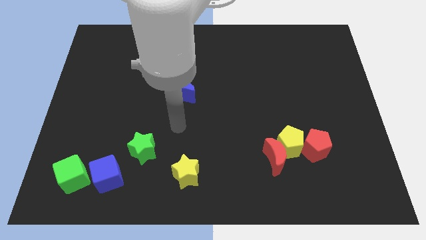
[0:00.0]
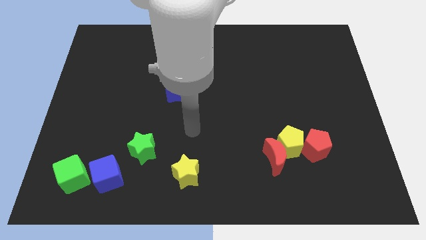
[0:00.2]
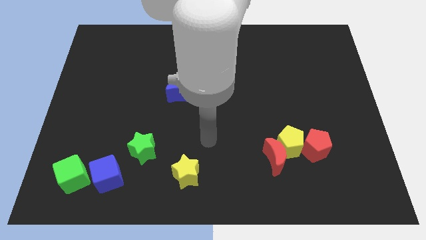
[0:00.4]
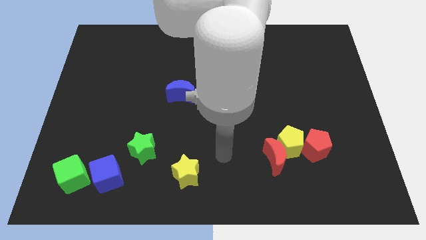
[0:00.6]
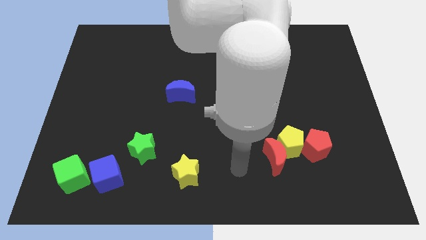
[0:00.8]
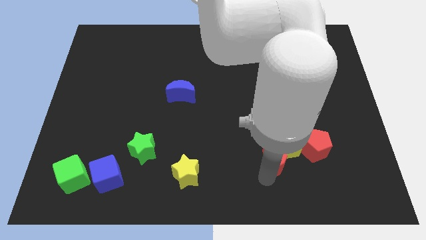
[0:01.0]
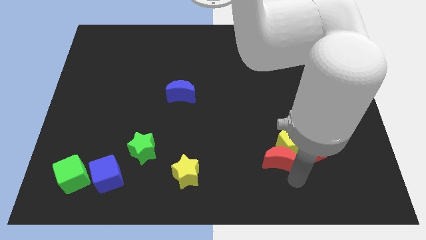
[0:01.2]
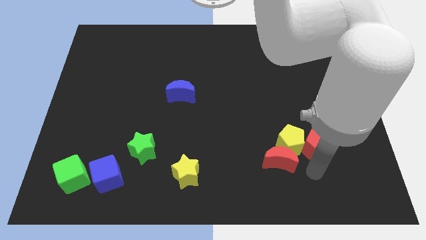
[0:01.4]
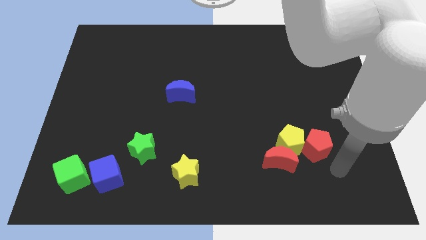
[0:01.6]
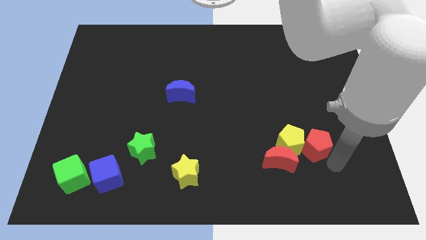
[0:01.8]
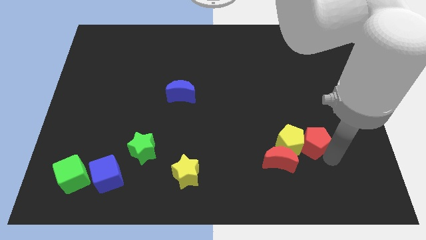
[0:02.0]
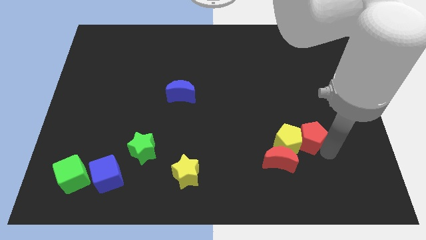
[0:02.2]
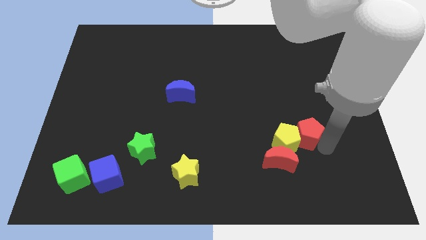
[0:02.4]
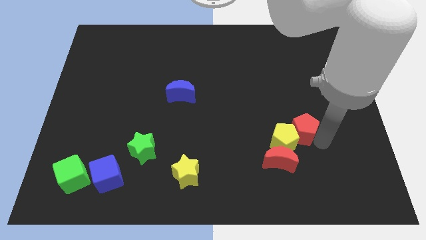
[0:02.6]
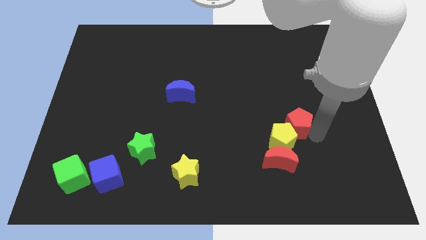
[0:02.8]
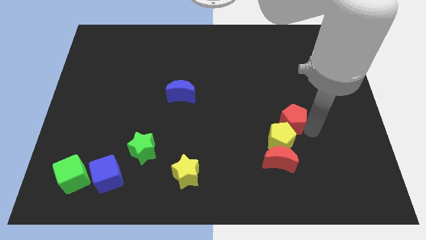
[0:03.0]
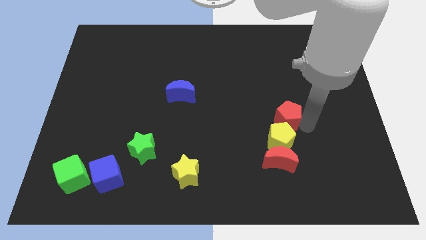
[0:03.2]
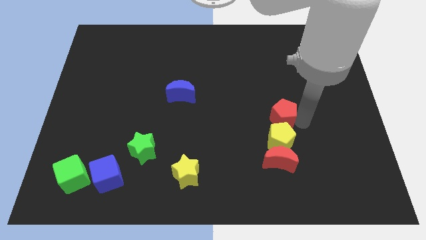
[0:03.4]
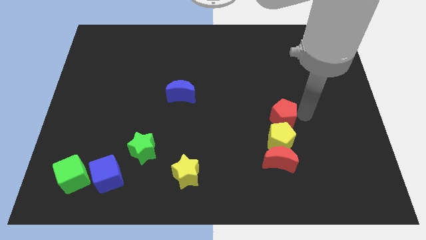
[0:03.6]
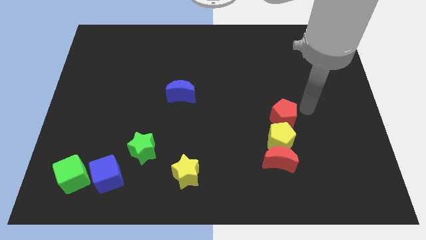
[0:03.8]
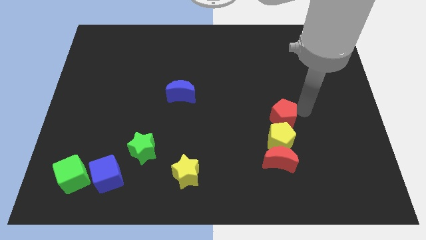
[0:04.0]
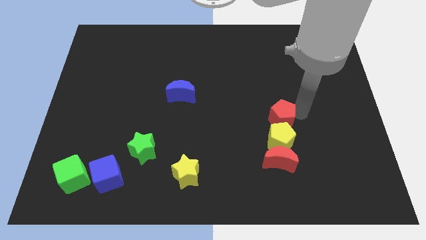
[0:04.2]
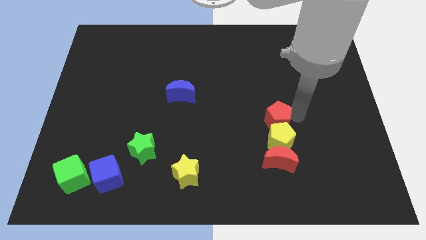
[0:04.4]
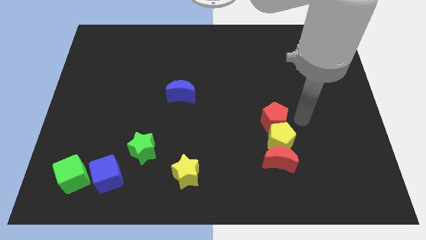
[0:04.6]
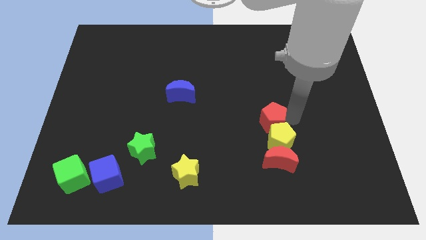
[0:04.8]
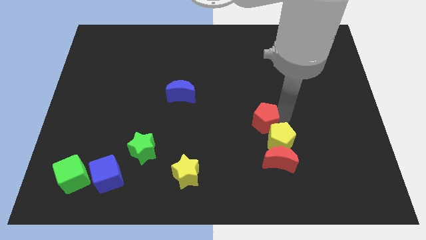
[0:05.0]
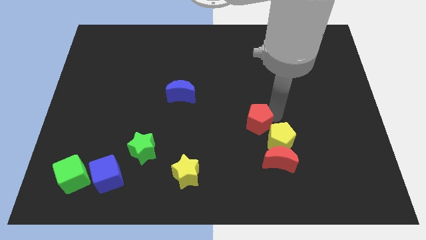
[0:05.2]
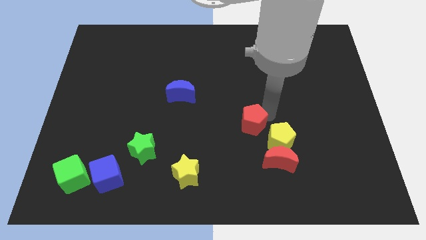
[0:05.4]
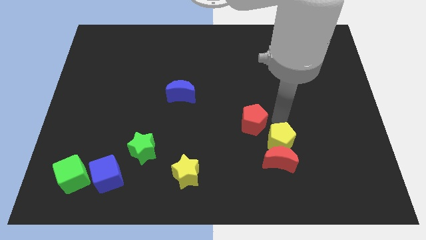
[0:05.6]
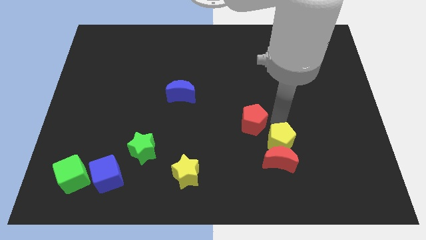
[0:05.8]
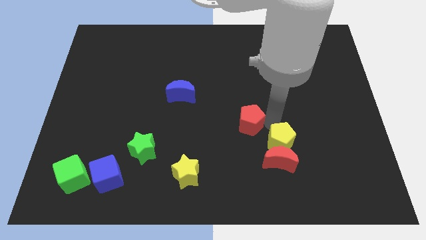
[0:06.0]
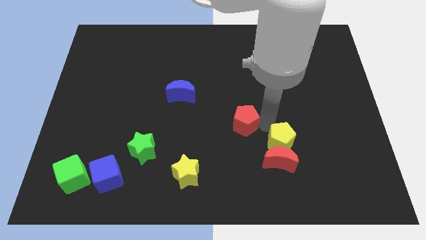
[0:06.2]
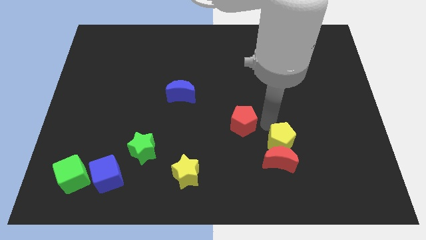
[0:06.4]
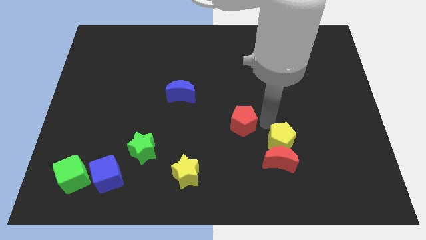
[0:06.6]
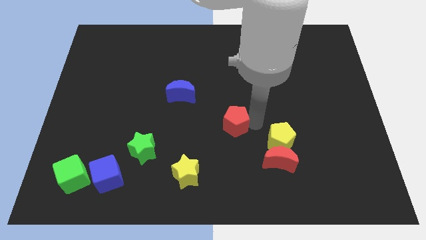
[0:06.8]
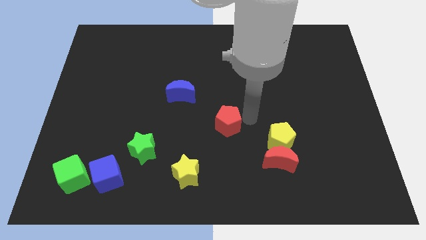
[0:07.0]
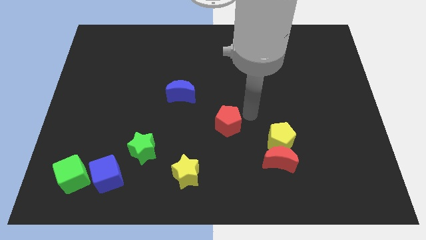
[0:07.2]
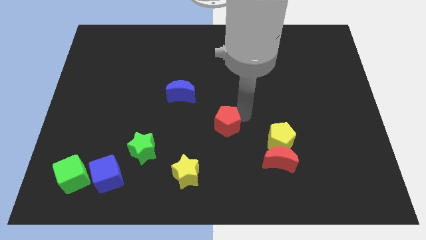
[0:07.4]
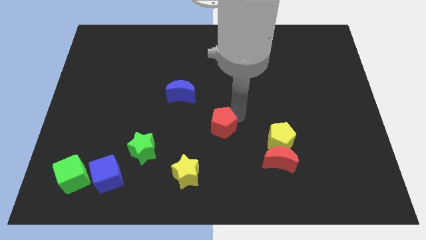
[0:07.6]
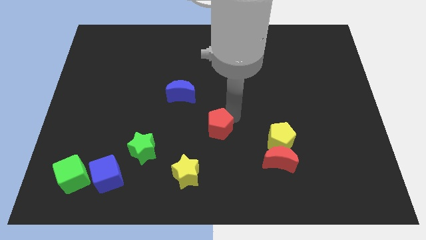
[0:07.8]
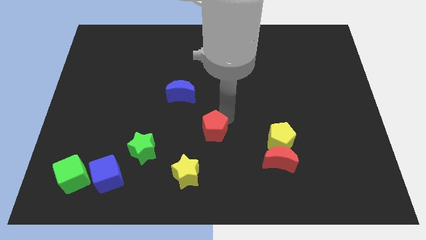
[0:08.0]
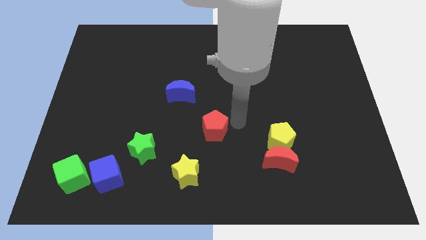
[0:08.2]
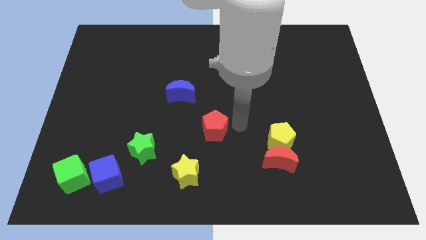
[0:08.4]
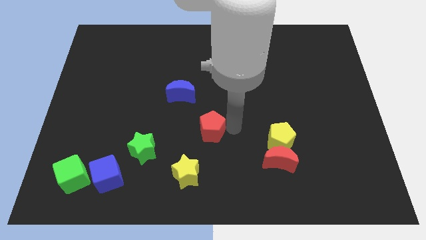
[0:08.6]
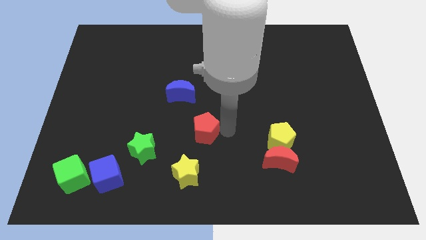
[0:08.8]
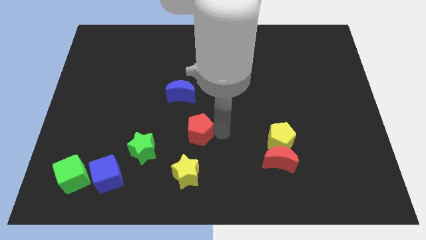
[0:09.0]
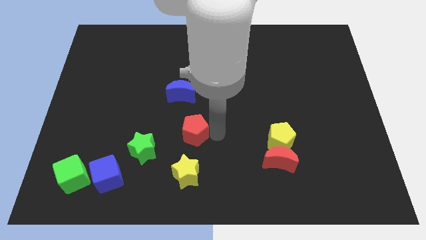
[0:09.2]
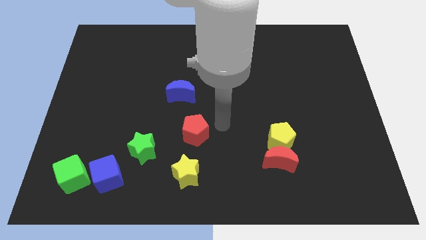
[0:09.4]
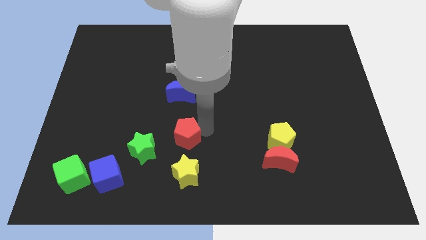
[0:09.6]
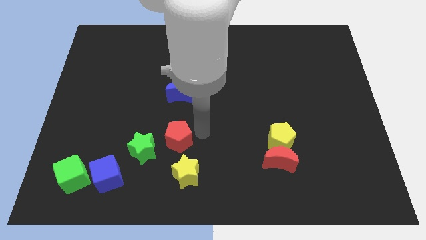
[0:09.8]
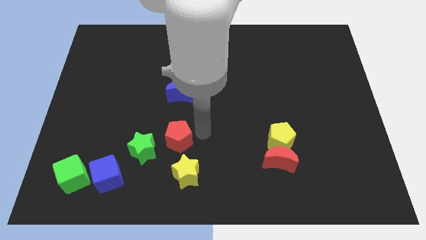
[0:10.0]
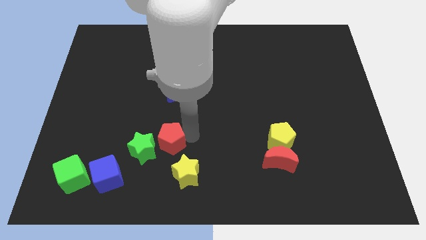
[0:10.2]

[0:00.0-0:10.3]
slide the red pentagon close to the green star

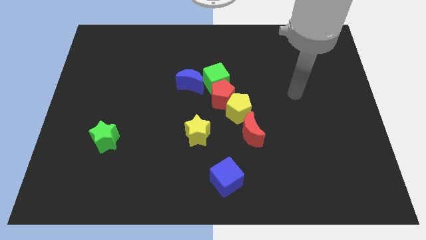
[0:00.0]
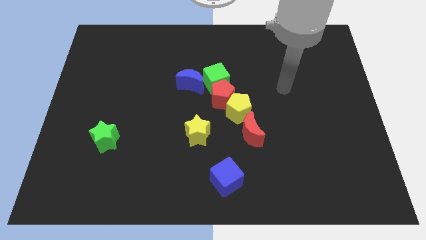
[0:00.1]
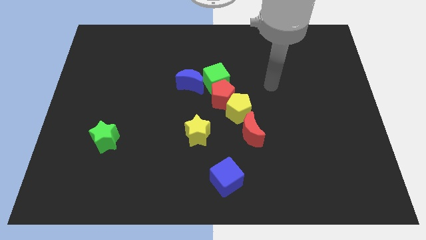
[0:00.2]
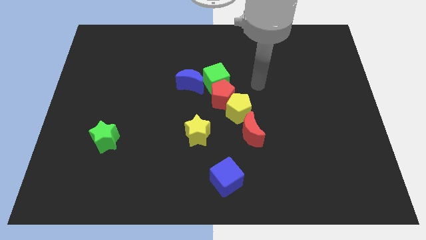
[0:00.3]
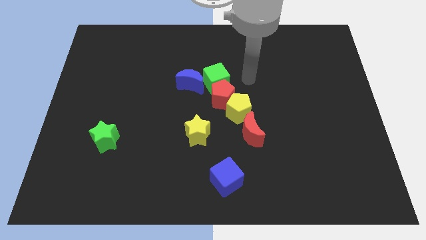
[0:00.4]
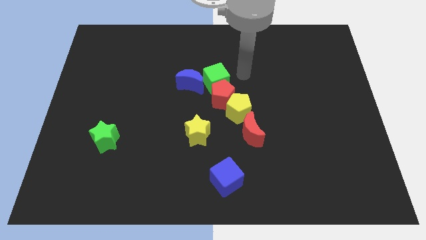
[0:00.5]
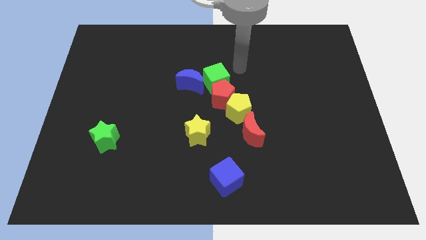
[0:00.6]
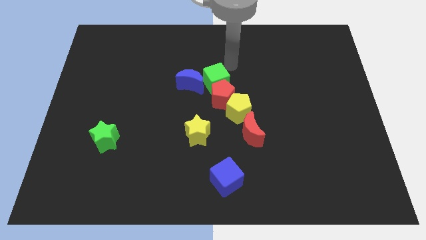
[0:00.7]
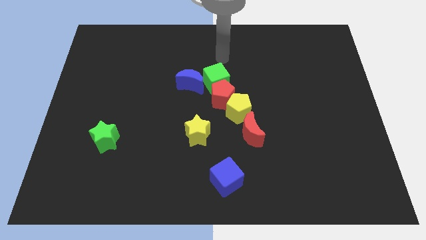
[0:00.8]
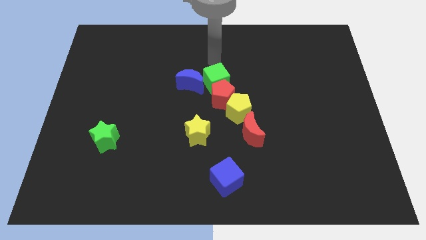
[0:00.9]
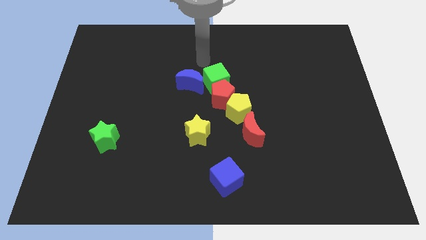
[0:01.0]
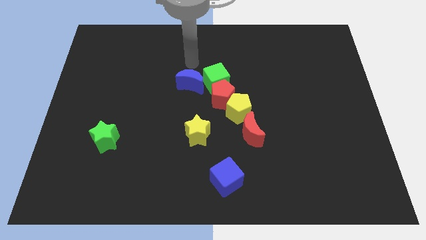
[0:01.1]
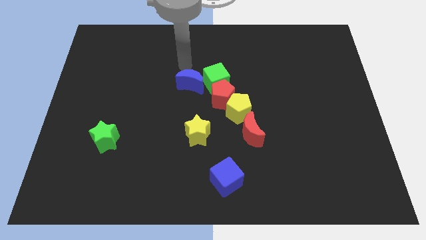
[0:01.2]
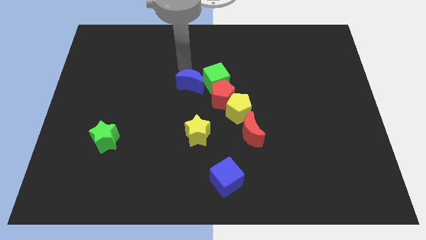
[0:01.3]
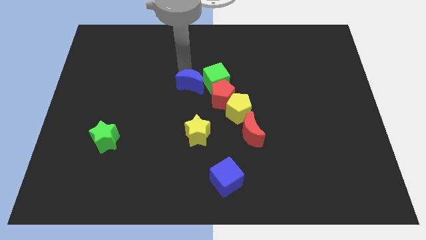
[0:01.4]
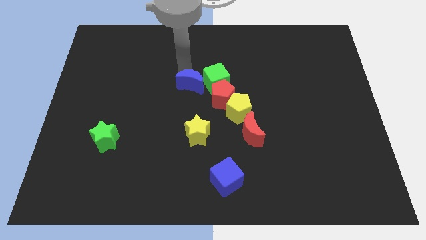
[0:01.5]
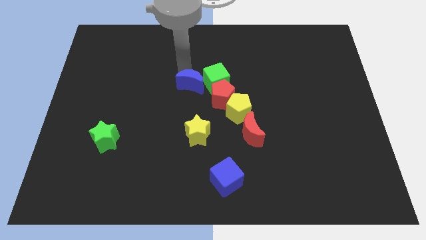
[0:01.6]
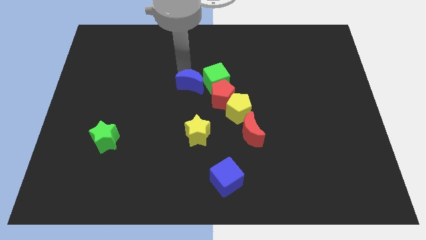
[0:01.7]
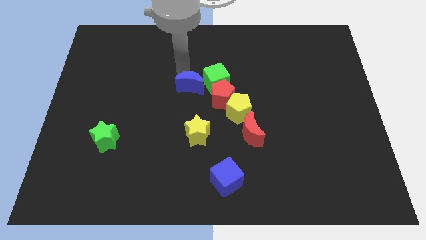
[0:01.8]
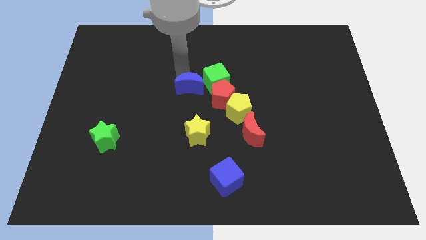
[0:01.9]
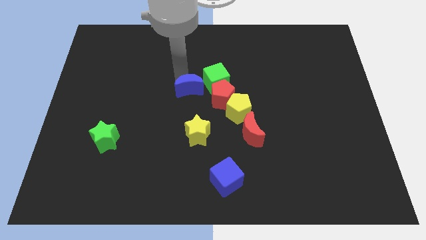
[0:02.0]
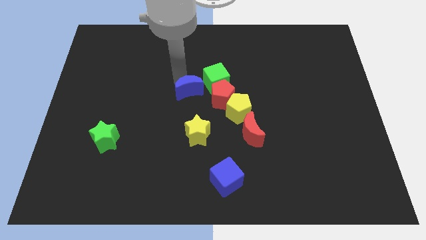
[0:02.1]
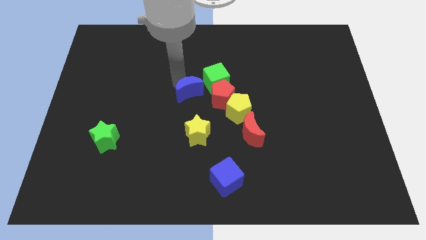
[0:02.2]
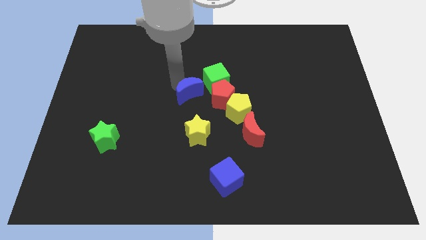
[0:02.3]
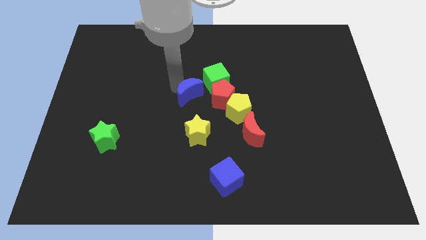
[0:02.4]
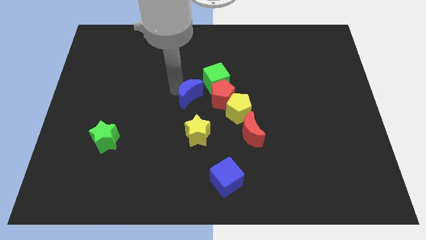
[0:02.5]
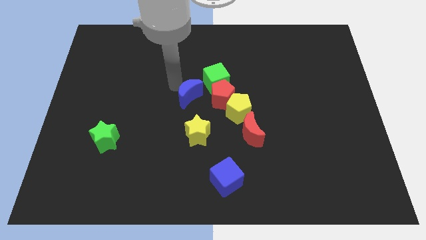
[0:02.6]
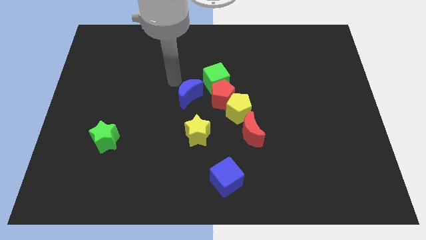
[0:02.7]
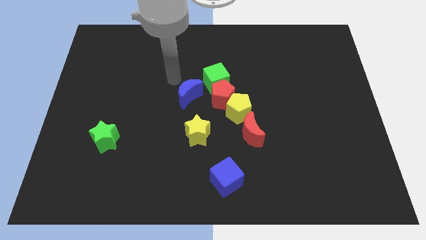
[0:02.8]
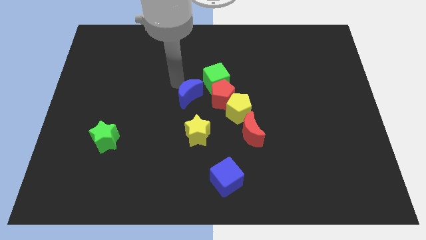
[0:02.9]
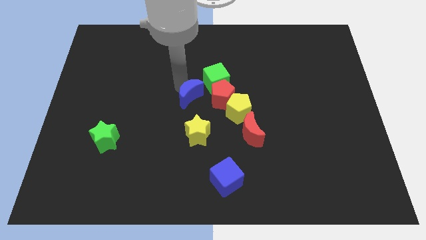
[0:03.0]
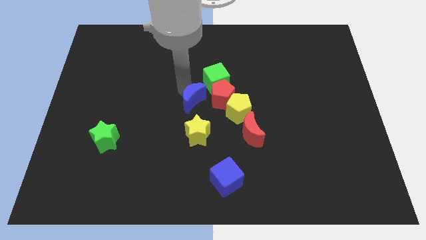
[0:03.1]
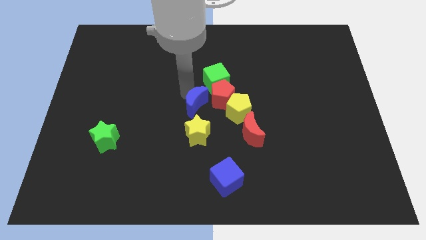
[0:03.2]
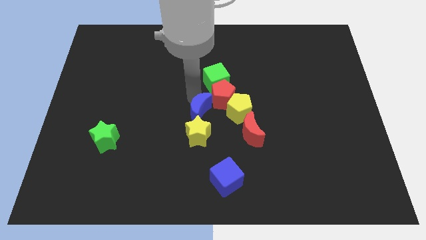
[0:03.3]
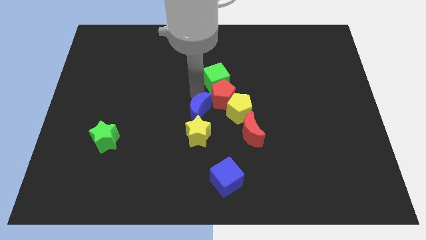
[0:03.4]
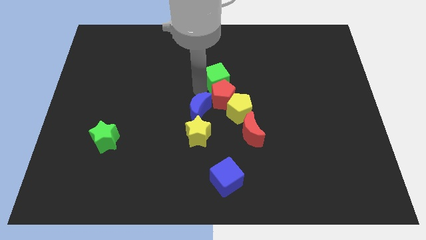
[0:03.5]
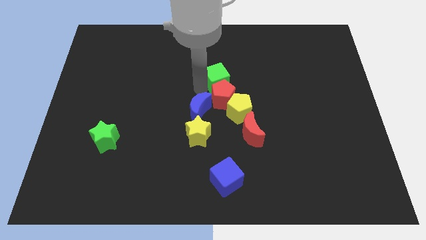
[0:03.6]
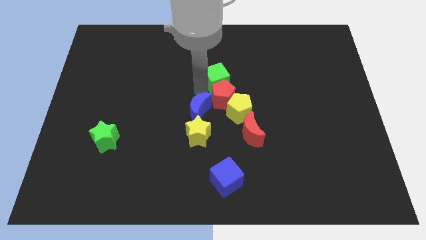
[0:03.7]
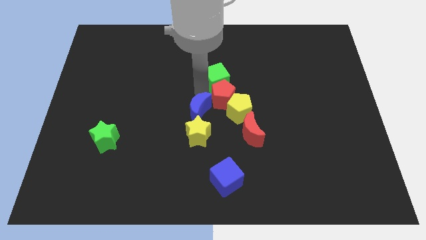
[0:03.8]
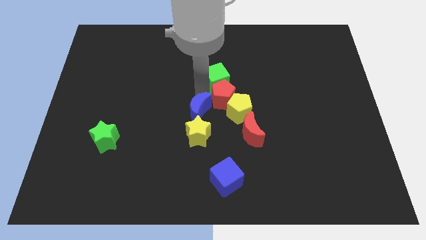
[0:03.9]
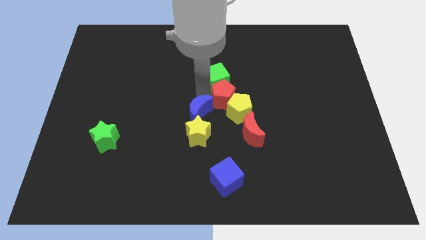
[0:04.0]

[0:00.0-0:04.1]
put the blue moon to the yellow star
